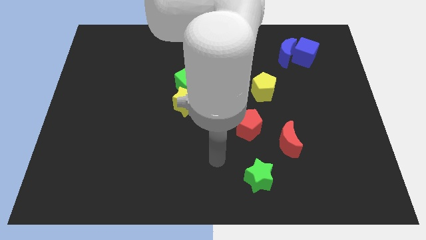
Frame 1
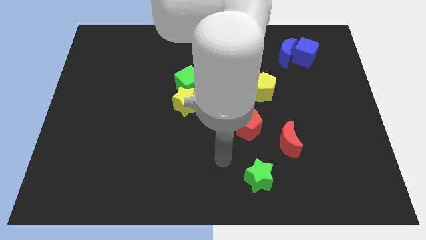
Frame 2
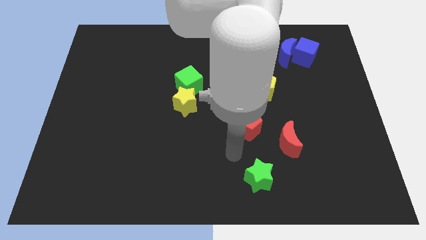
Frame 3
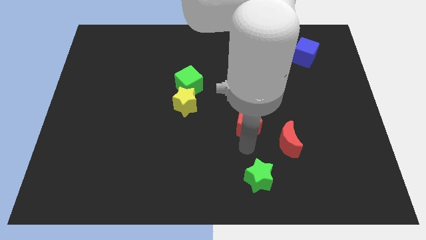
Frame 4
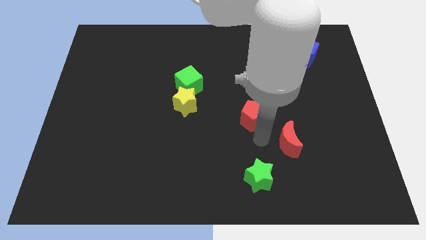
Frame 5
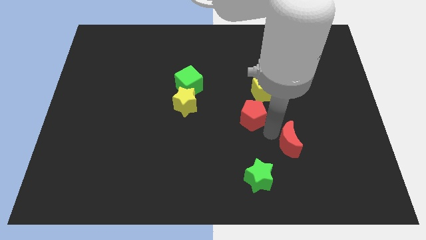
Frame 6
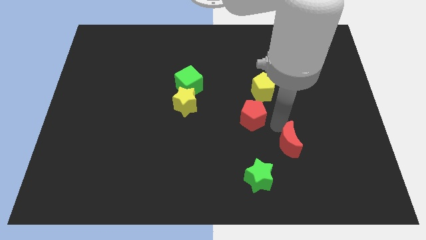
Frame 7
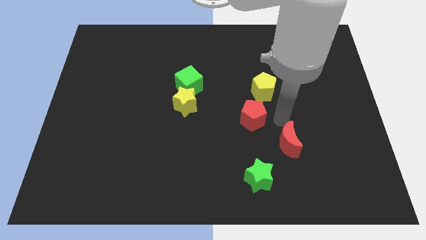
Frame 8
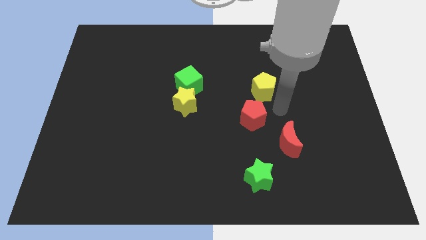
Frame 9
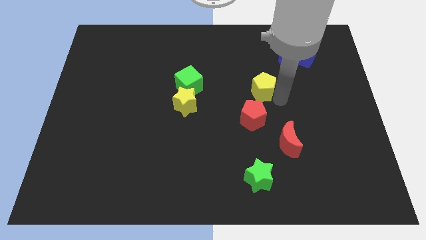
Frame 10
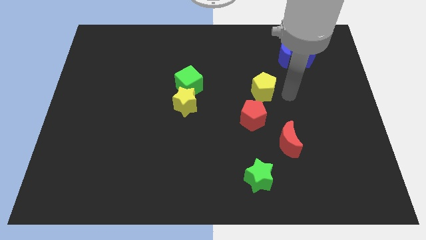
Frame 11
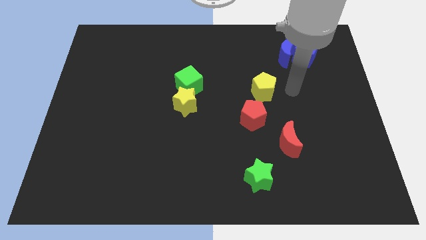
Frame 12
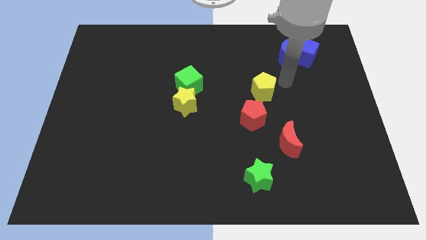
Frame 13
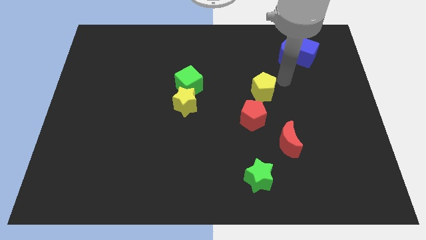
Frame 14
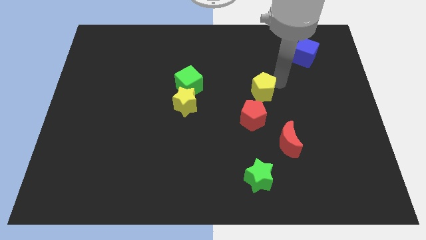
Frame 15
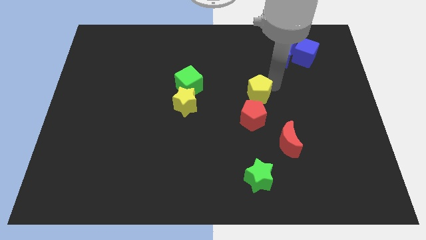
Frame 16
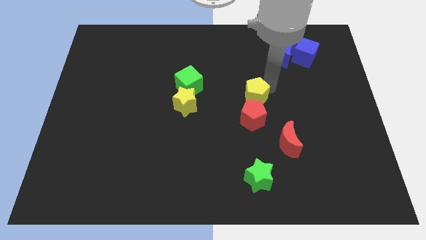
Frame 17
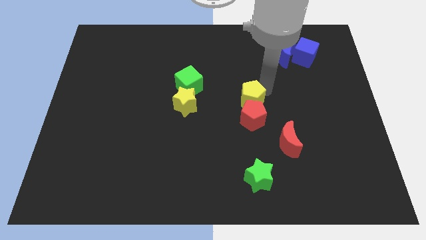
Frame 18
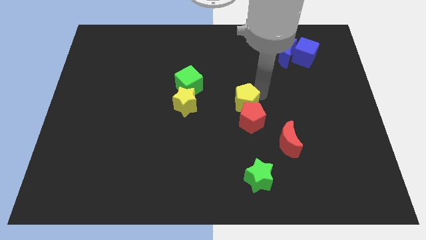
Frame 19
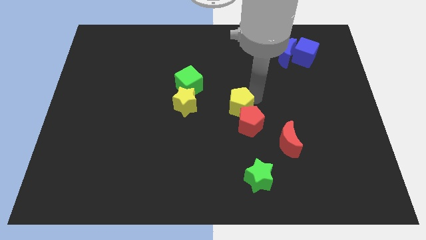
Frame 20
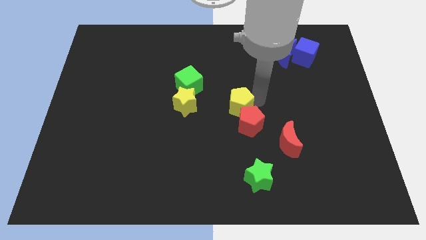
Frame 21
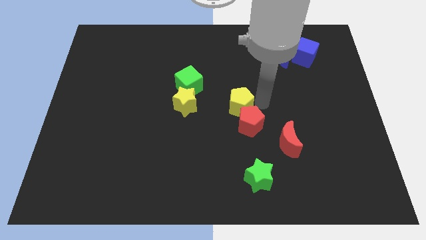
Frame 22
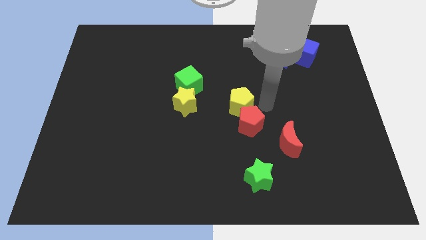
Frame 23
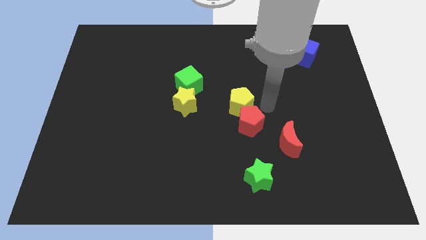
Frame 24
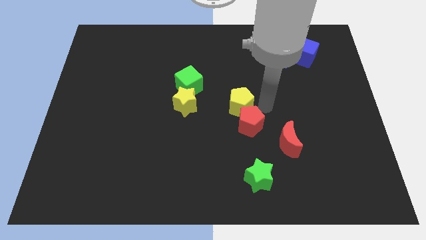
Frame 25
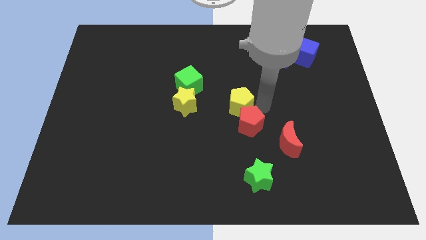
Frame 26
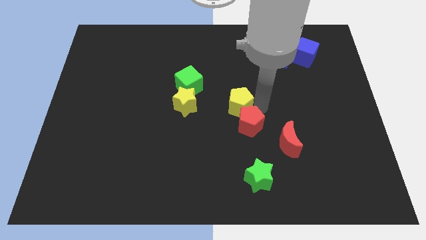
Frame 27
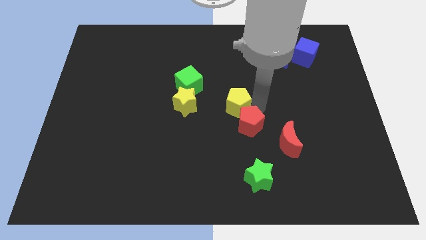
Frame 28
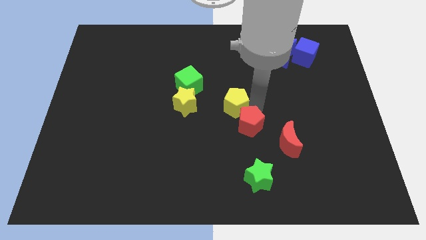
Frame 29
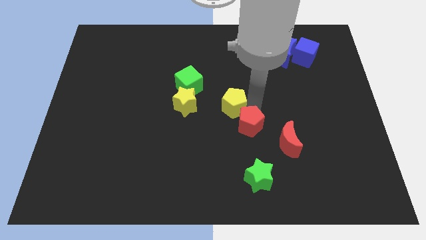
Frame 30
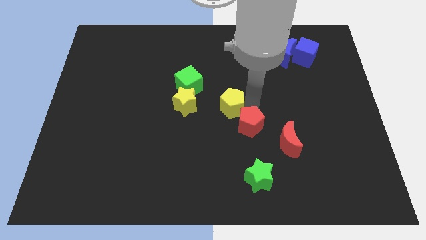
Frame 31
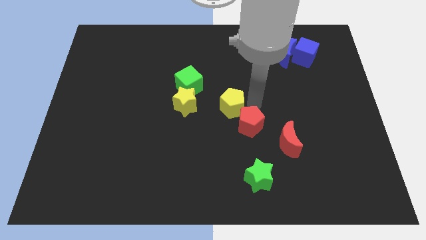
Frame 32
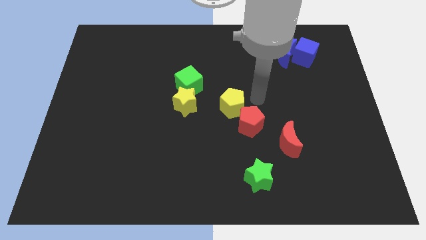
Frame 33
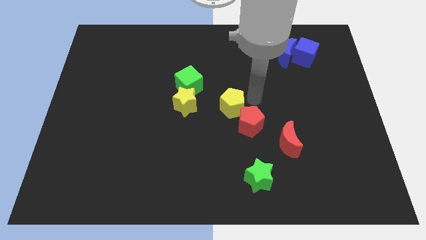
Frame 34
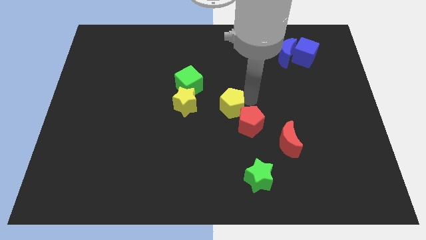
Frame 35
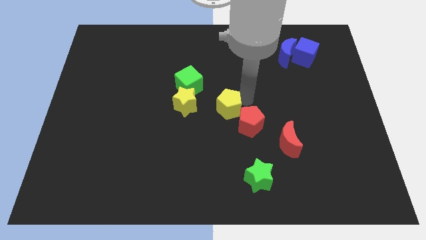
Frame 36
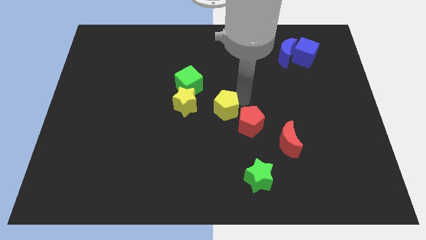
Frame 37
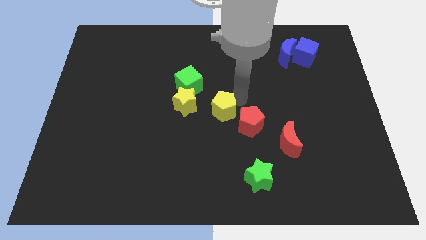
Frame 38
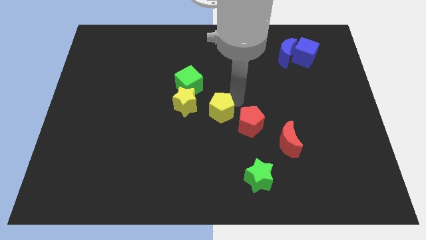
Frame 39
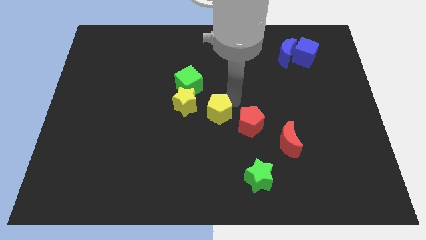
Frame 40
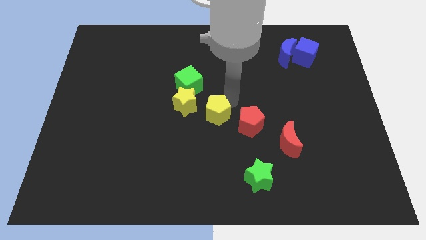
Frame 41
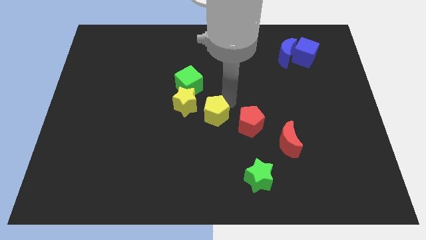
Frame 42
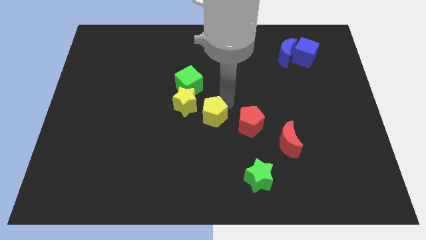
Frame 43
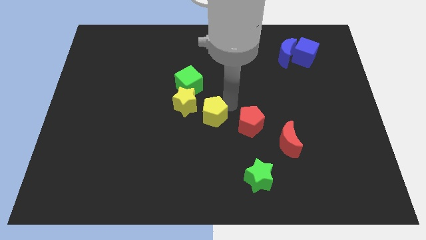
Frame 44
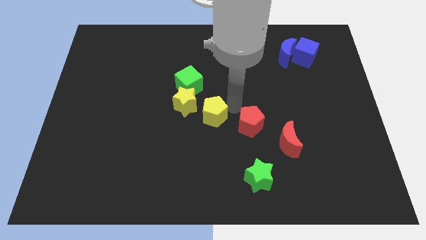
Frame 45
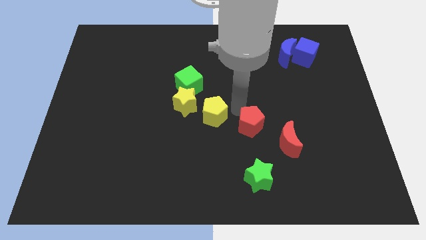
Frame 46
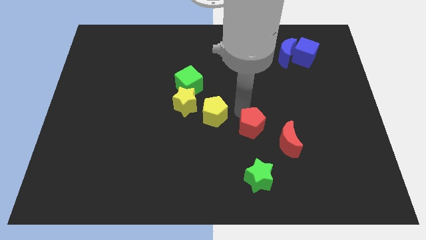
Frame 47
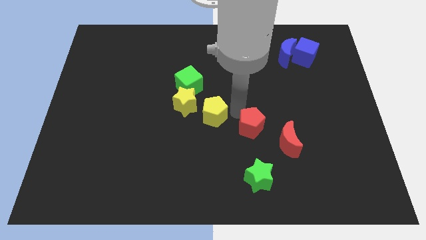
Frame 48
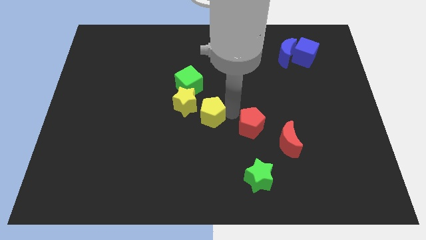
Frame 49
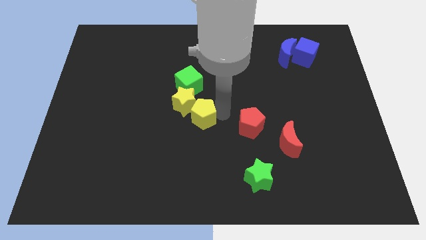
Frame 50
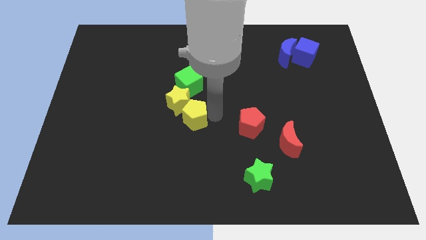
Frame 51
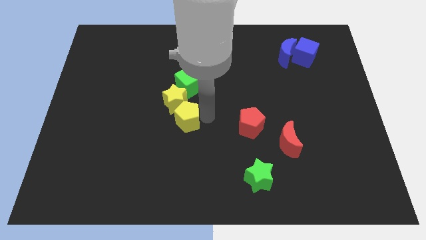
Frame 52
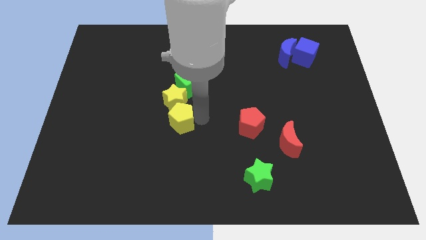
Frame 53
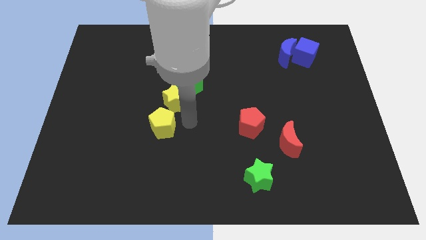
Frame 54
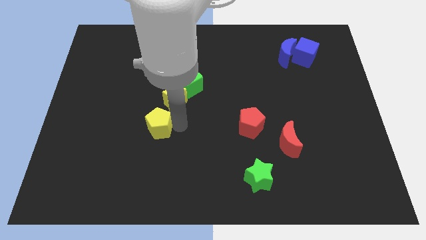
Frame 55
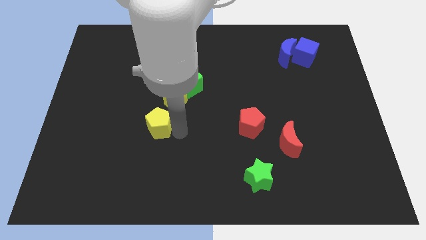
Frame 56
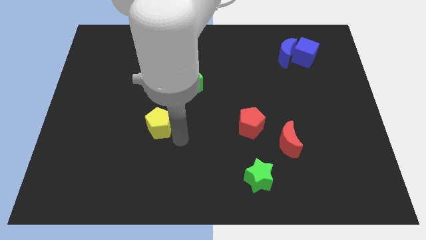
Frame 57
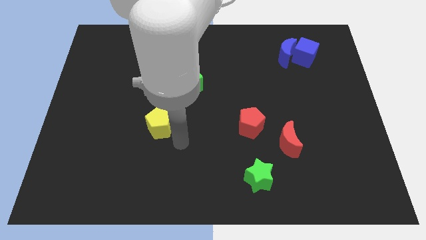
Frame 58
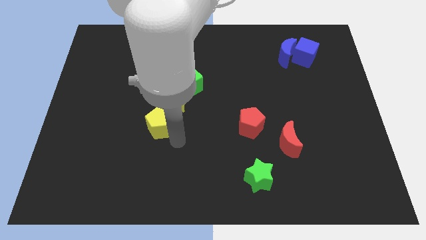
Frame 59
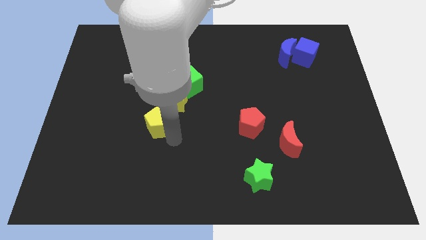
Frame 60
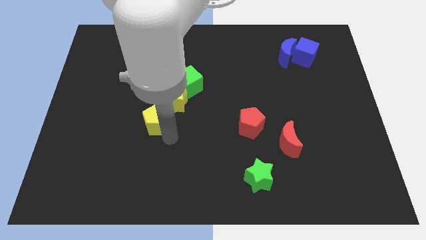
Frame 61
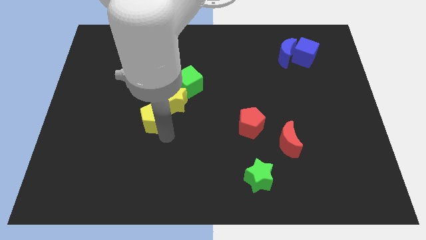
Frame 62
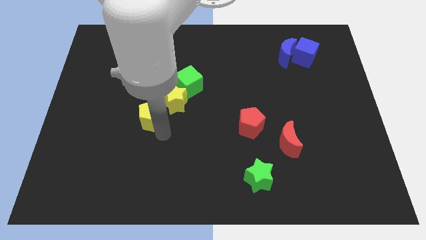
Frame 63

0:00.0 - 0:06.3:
push the yellow pentagon to the left of the yellow star

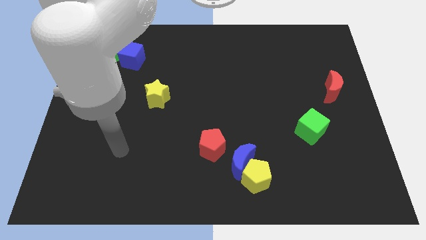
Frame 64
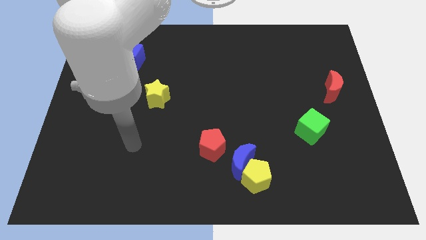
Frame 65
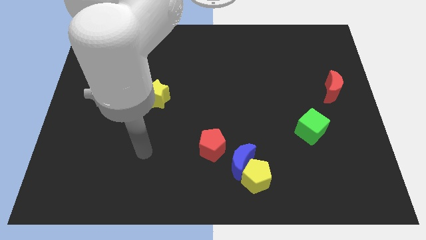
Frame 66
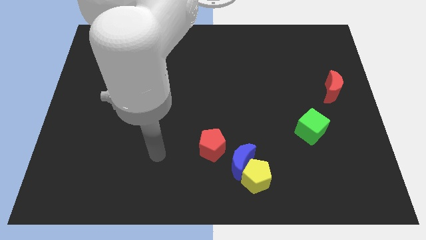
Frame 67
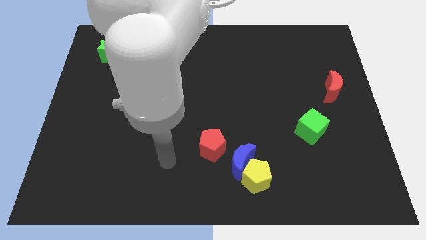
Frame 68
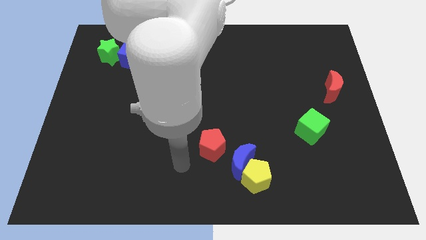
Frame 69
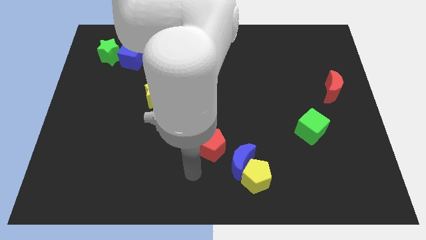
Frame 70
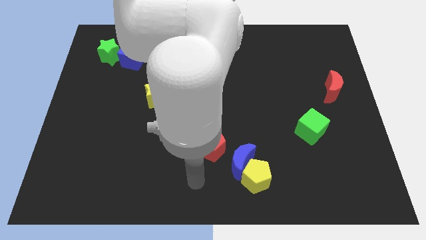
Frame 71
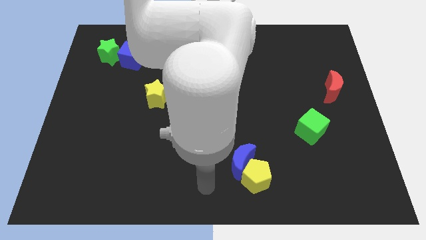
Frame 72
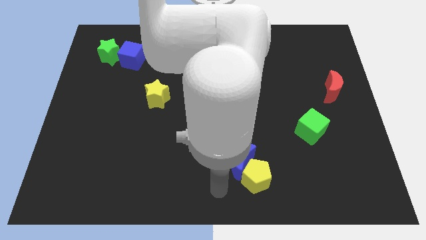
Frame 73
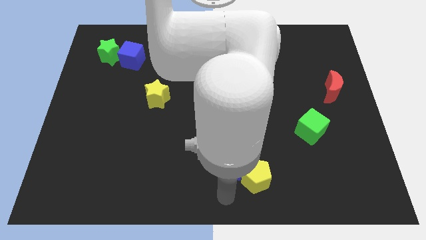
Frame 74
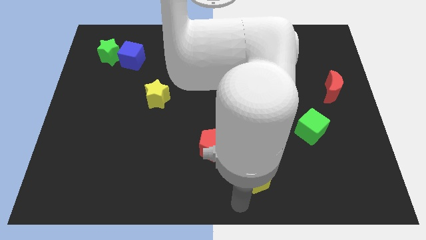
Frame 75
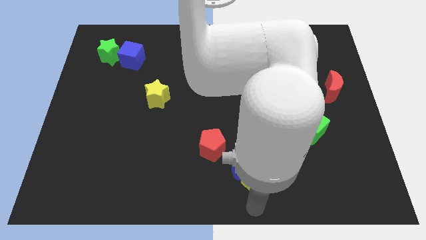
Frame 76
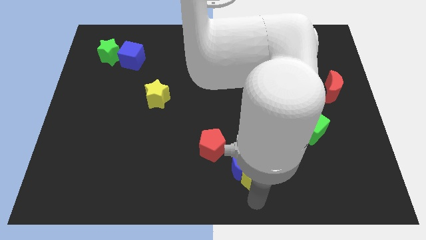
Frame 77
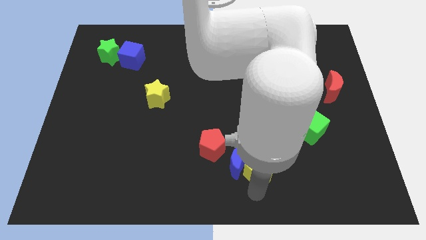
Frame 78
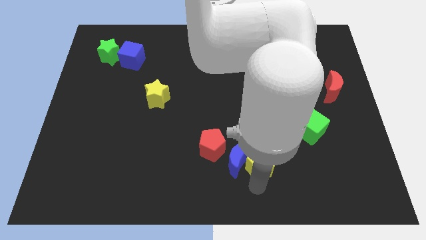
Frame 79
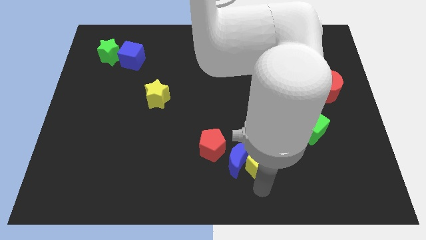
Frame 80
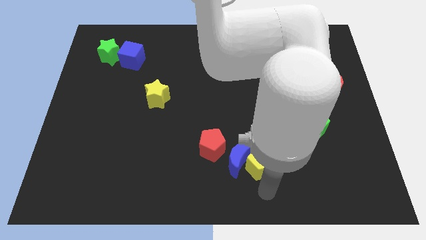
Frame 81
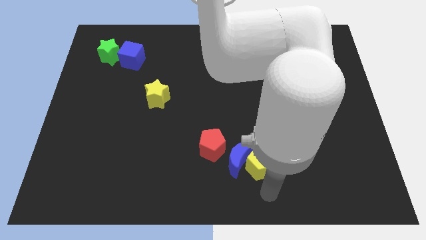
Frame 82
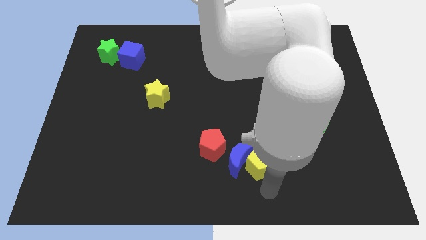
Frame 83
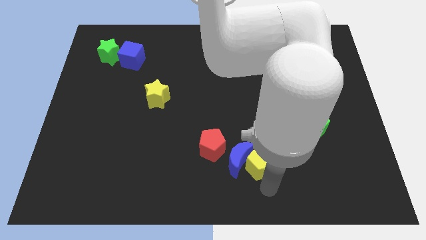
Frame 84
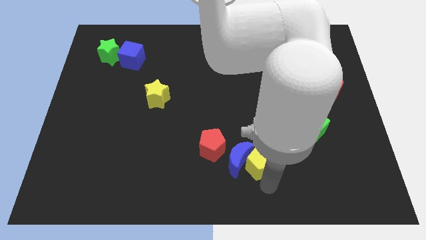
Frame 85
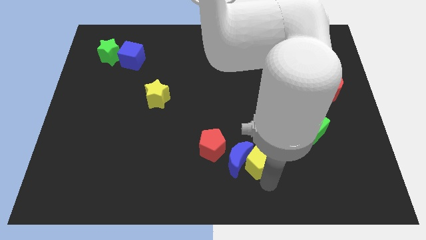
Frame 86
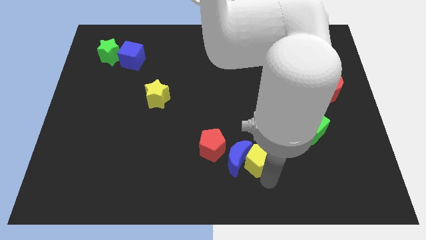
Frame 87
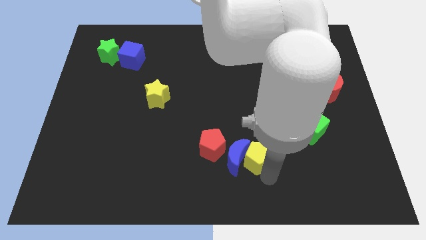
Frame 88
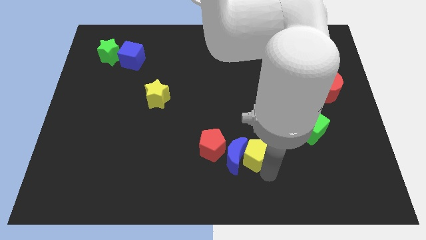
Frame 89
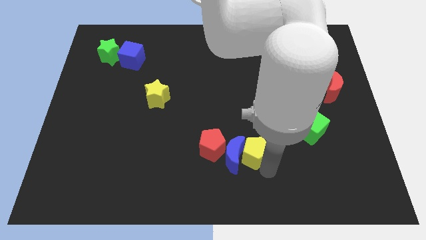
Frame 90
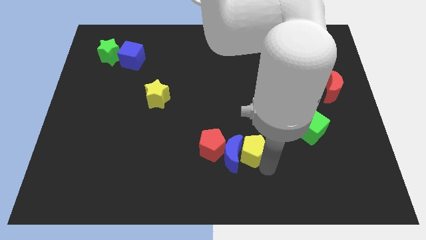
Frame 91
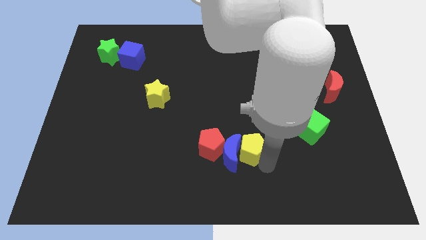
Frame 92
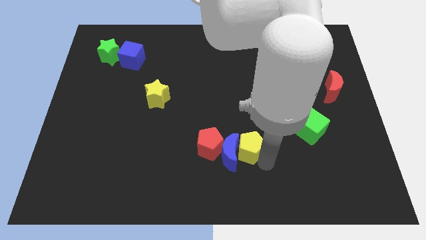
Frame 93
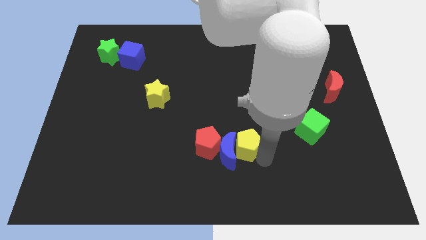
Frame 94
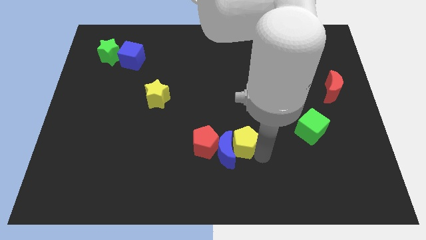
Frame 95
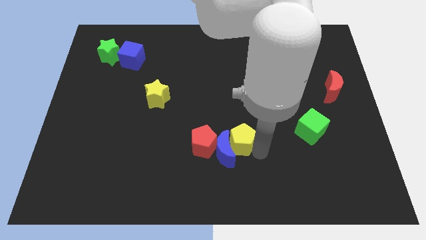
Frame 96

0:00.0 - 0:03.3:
slide the yellow pentagon to the top side of the blue moon
